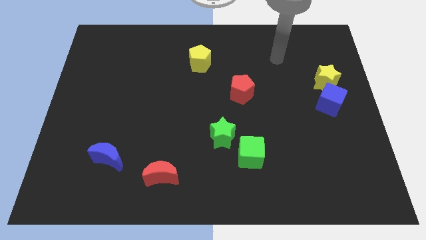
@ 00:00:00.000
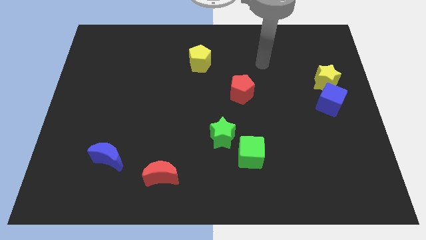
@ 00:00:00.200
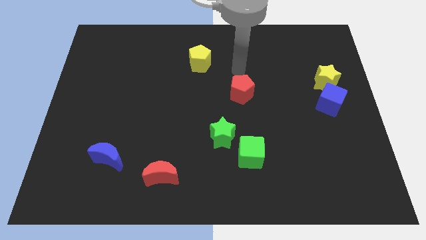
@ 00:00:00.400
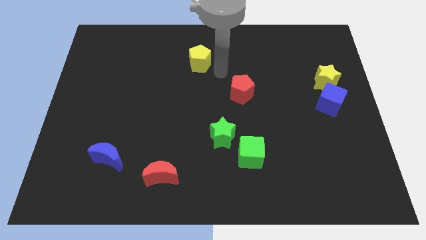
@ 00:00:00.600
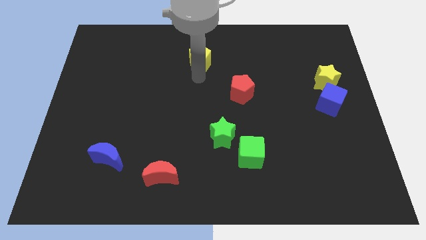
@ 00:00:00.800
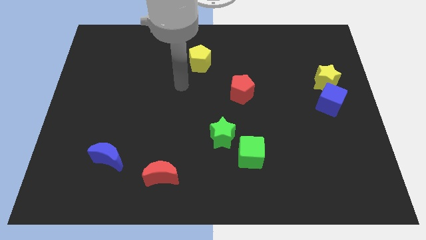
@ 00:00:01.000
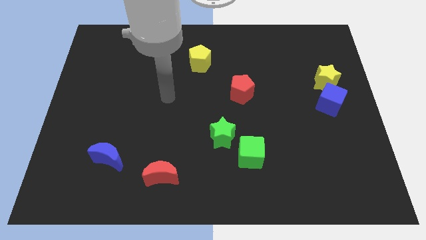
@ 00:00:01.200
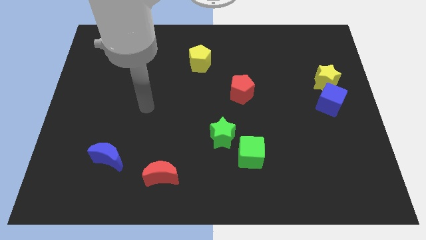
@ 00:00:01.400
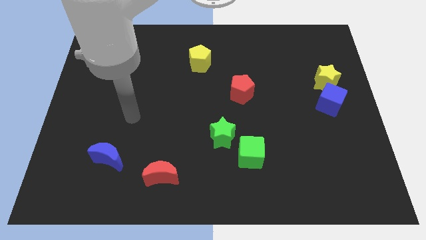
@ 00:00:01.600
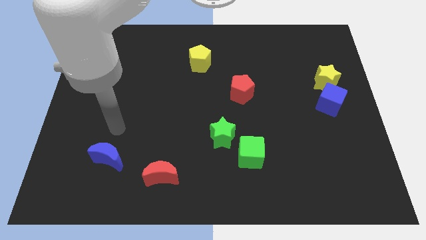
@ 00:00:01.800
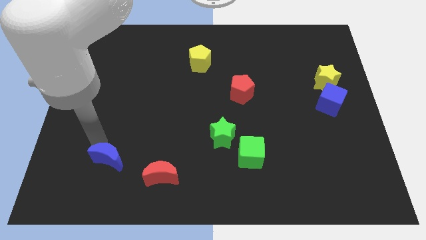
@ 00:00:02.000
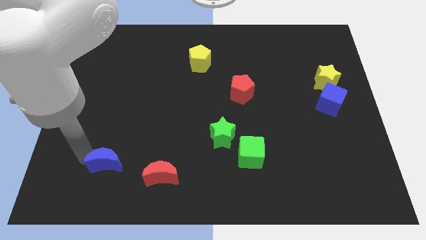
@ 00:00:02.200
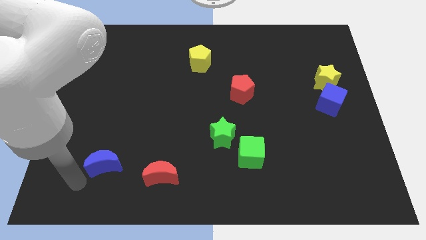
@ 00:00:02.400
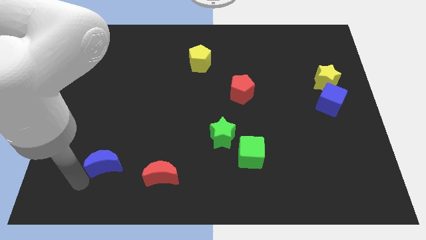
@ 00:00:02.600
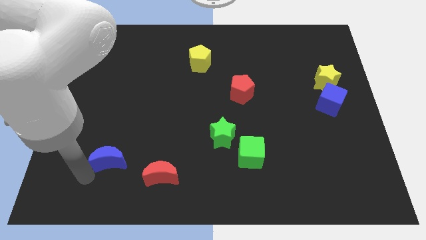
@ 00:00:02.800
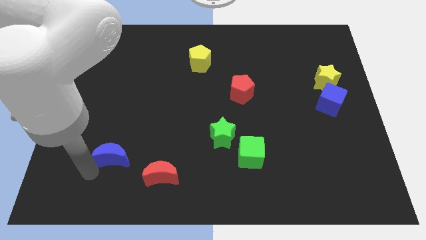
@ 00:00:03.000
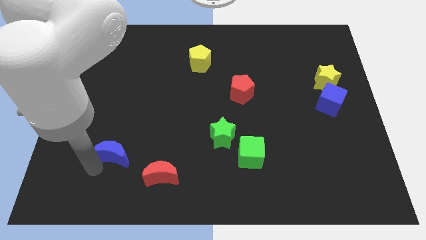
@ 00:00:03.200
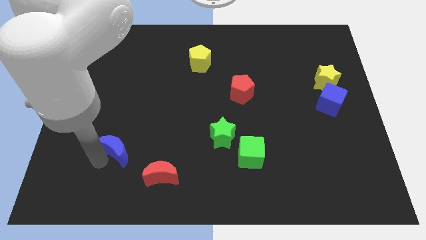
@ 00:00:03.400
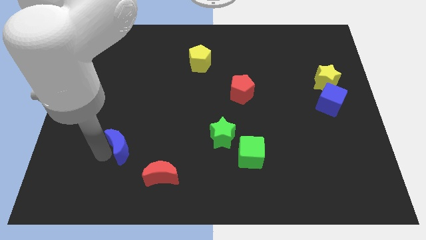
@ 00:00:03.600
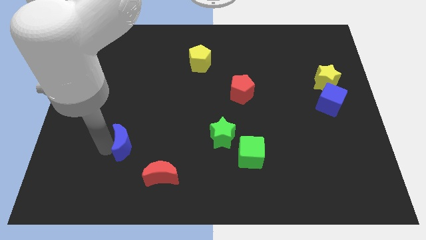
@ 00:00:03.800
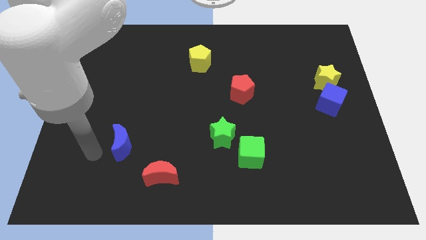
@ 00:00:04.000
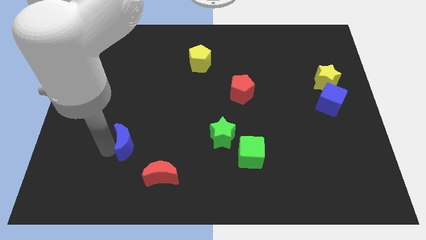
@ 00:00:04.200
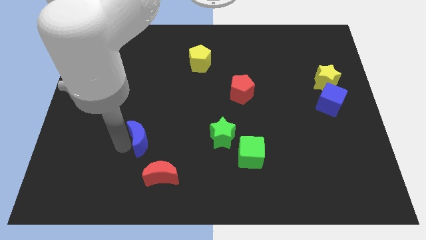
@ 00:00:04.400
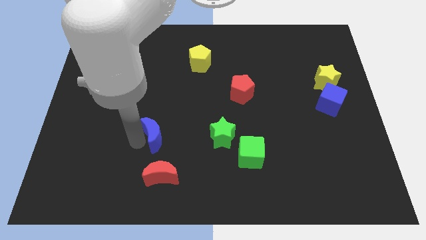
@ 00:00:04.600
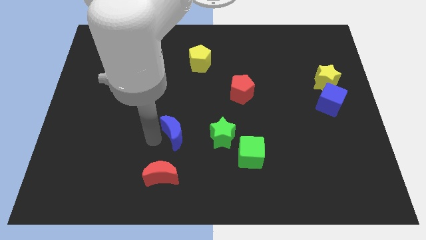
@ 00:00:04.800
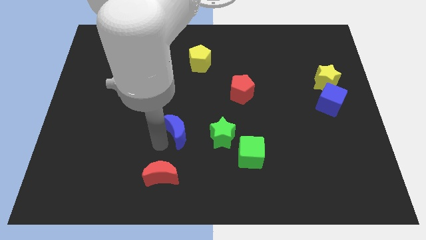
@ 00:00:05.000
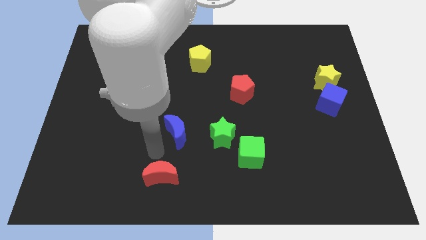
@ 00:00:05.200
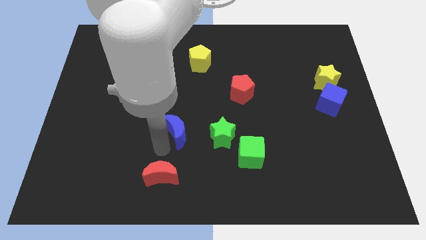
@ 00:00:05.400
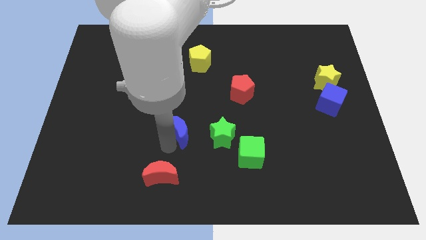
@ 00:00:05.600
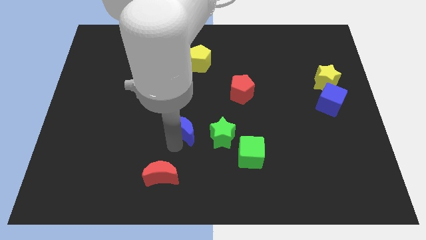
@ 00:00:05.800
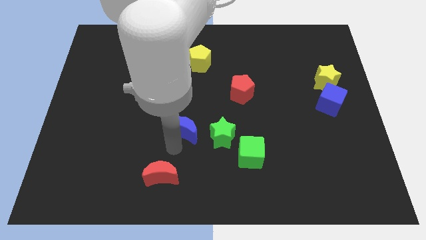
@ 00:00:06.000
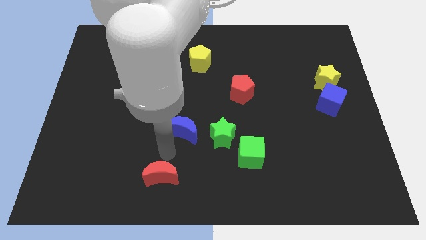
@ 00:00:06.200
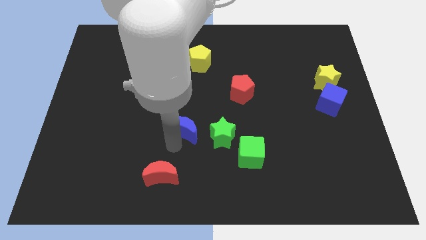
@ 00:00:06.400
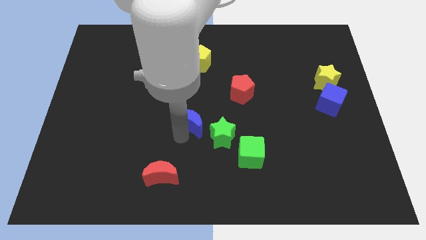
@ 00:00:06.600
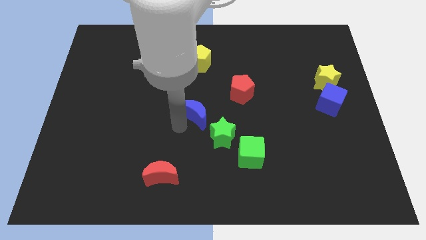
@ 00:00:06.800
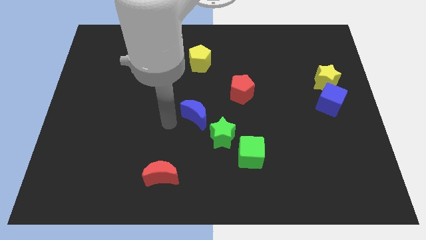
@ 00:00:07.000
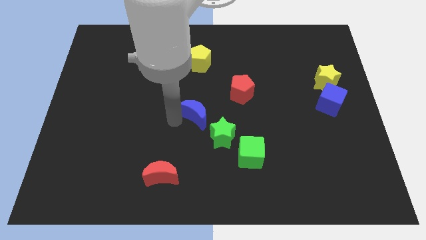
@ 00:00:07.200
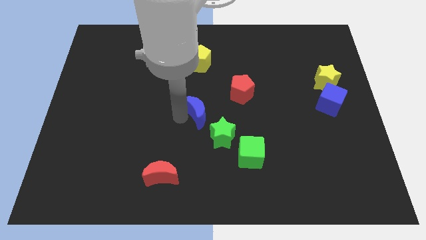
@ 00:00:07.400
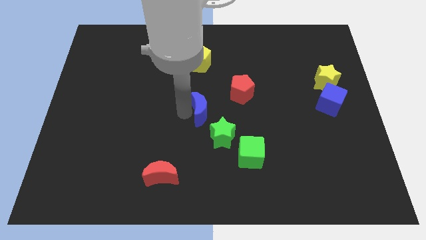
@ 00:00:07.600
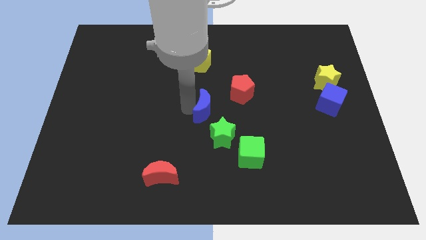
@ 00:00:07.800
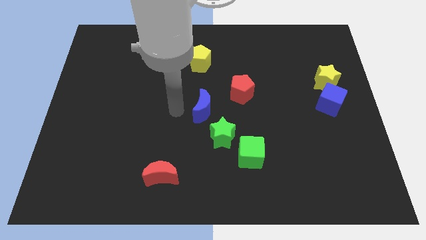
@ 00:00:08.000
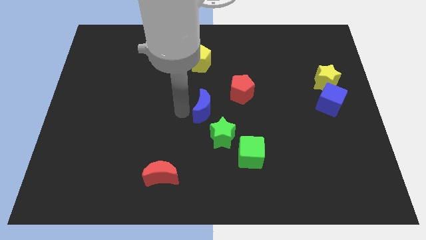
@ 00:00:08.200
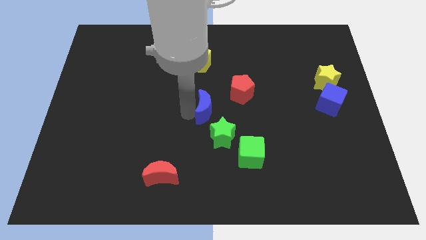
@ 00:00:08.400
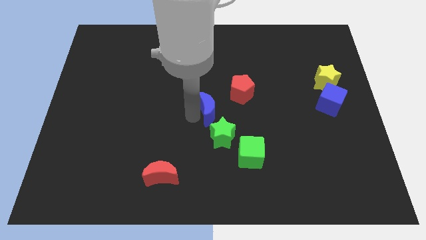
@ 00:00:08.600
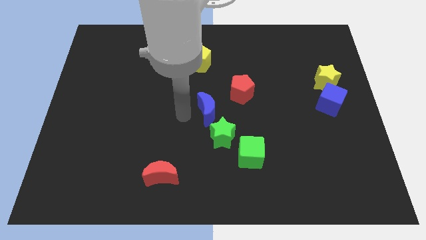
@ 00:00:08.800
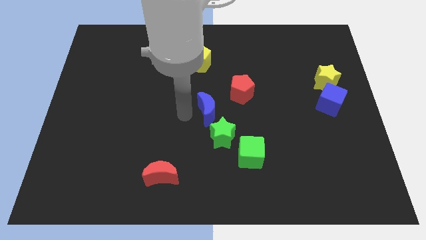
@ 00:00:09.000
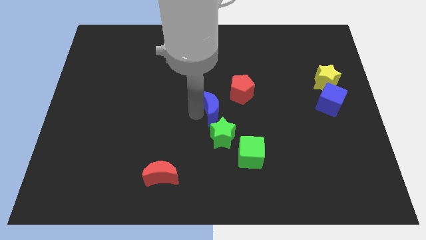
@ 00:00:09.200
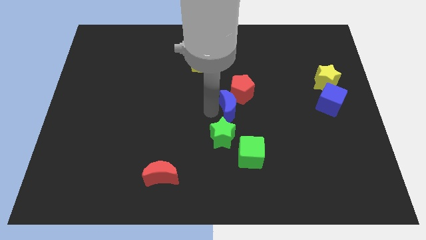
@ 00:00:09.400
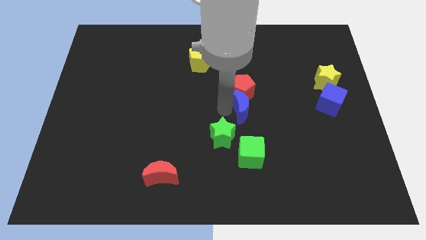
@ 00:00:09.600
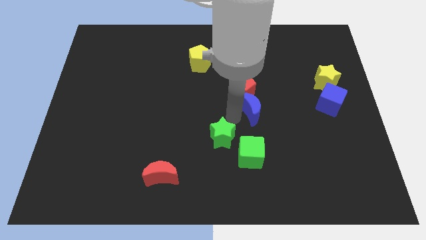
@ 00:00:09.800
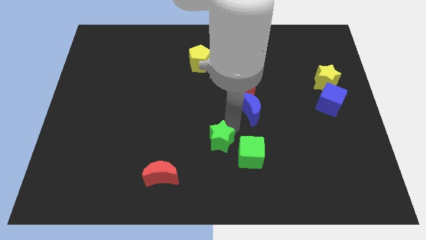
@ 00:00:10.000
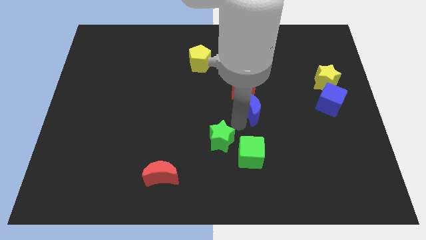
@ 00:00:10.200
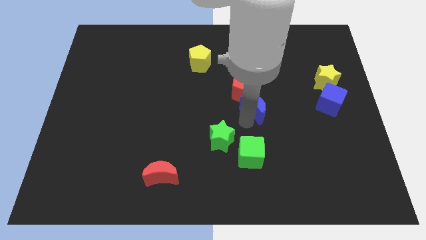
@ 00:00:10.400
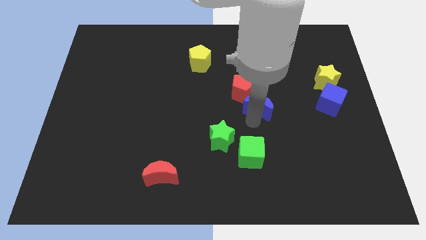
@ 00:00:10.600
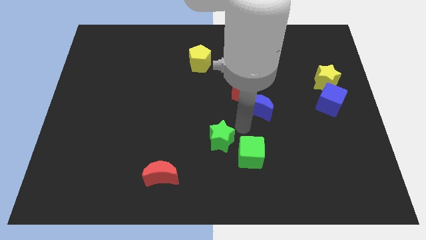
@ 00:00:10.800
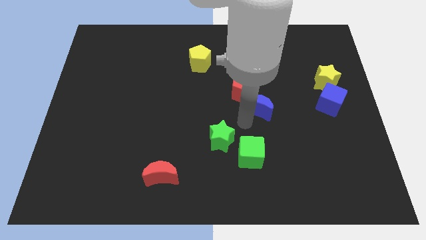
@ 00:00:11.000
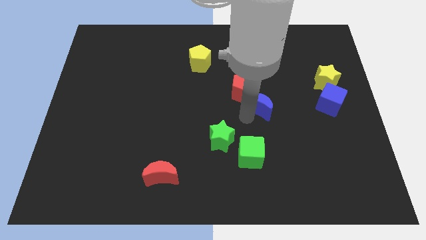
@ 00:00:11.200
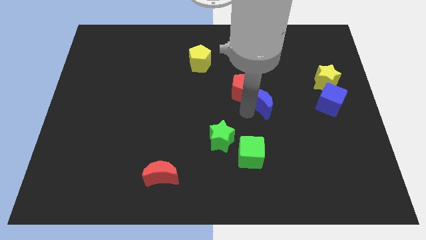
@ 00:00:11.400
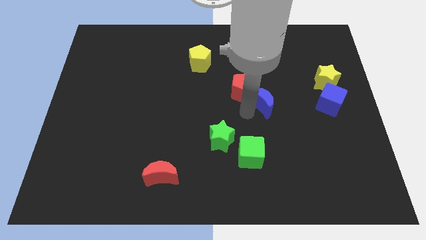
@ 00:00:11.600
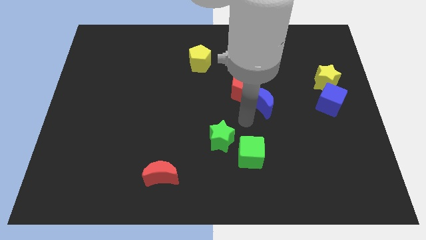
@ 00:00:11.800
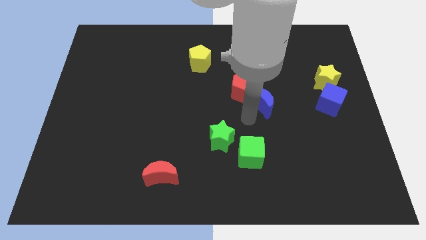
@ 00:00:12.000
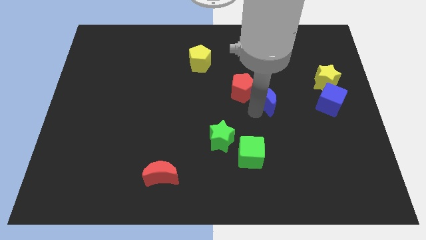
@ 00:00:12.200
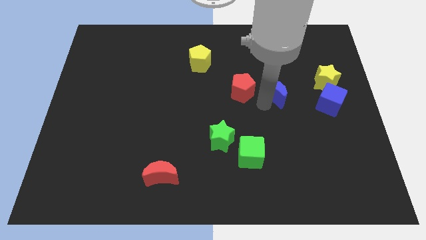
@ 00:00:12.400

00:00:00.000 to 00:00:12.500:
push the blue moon left of the yellow star
